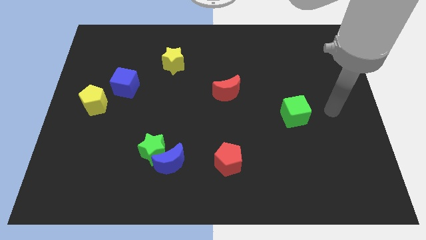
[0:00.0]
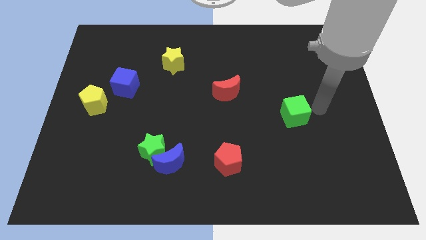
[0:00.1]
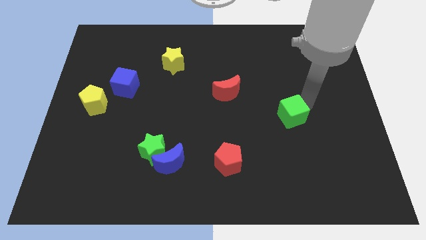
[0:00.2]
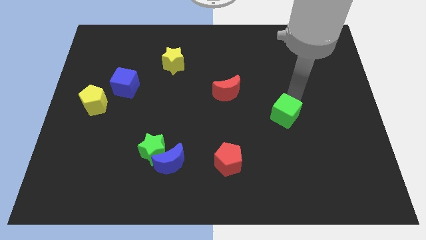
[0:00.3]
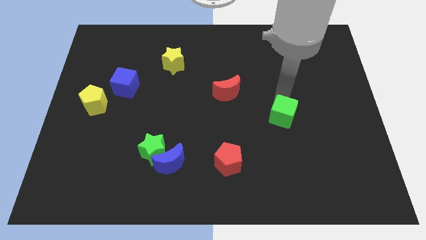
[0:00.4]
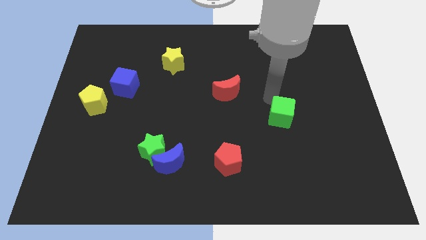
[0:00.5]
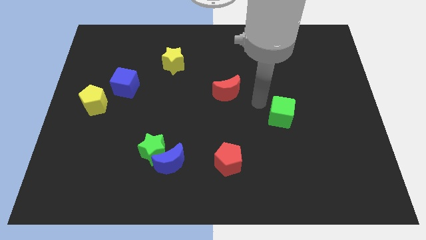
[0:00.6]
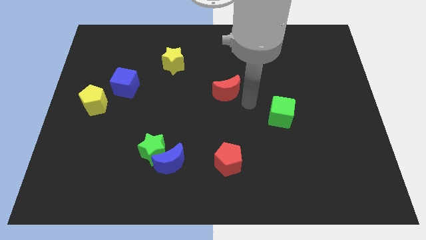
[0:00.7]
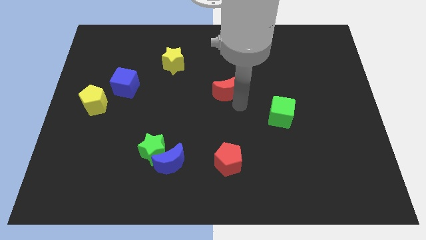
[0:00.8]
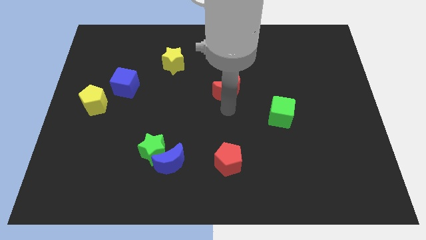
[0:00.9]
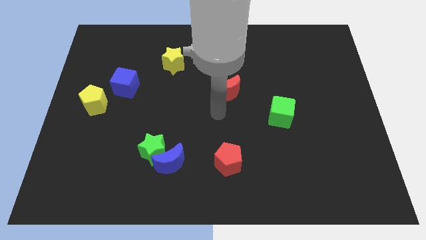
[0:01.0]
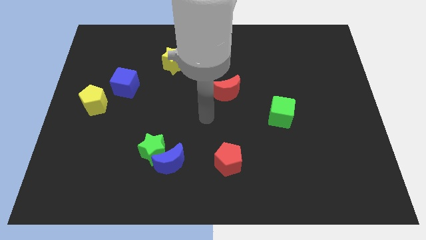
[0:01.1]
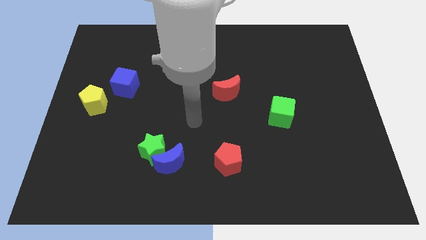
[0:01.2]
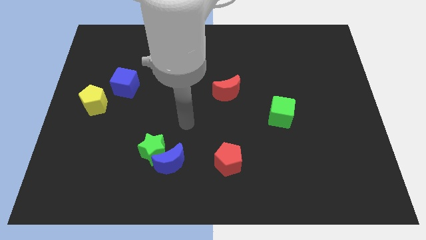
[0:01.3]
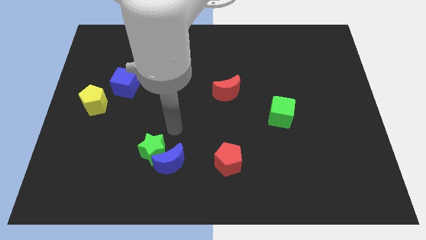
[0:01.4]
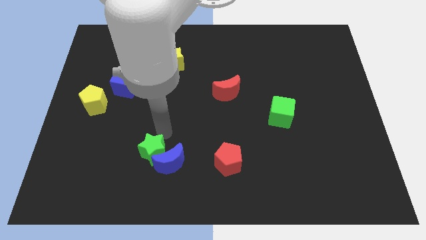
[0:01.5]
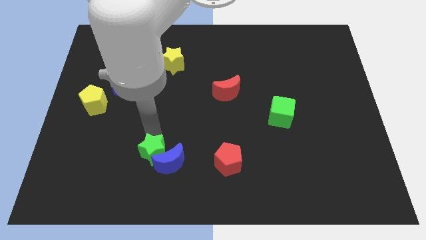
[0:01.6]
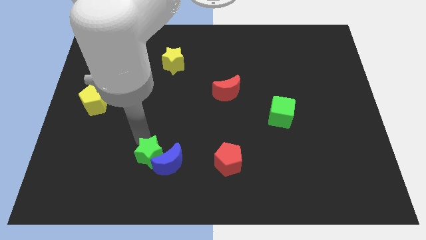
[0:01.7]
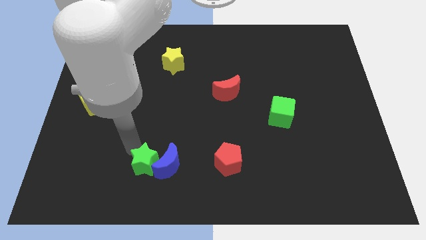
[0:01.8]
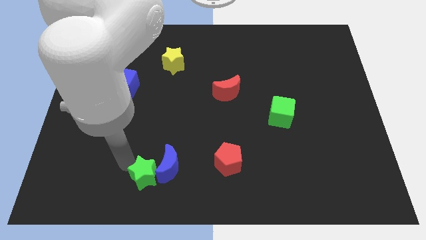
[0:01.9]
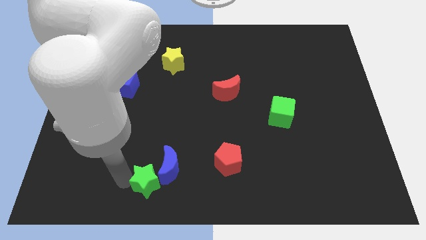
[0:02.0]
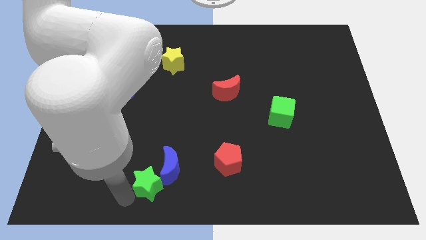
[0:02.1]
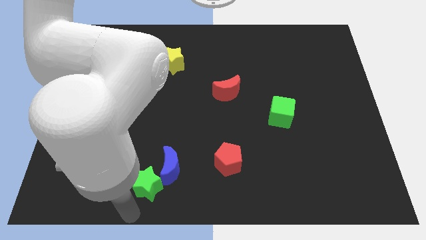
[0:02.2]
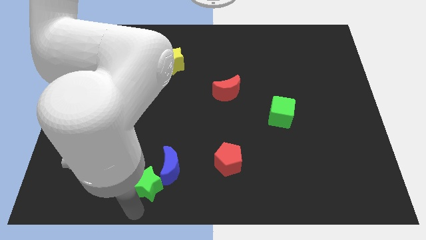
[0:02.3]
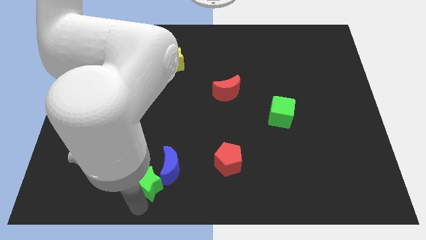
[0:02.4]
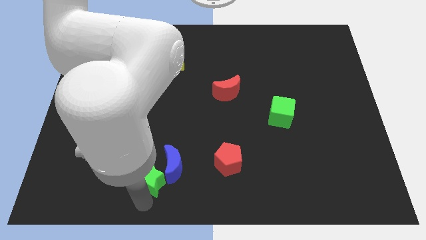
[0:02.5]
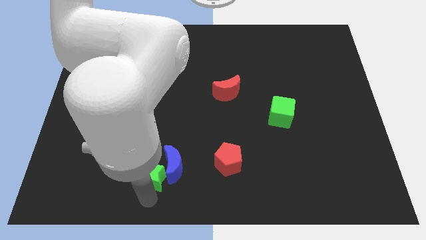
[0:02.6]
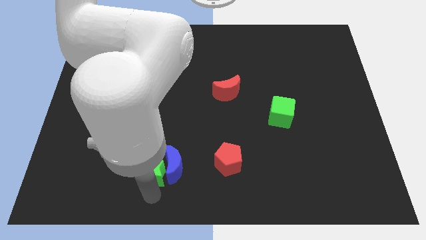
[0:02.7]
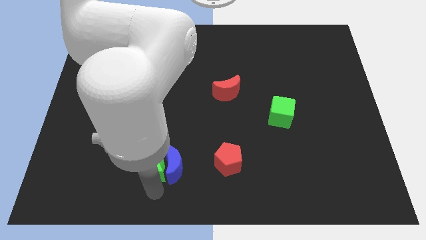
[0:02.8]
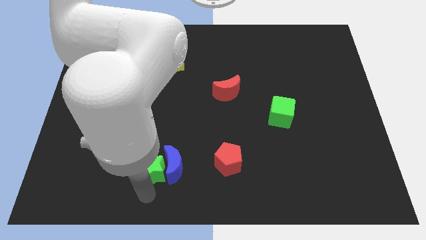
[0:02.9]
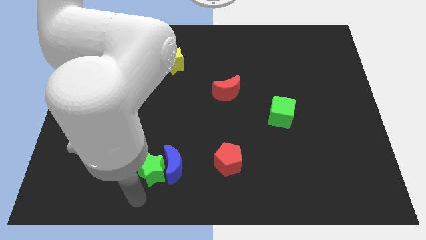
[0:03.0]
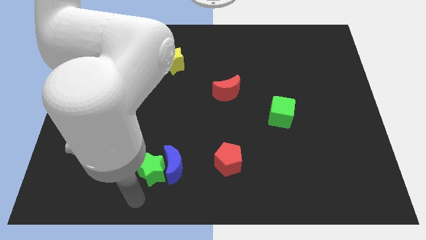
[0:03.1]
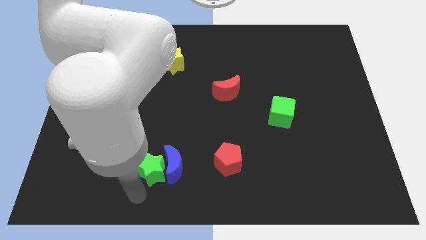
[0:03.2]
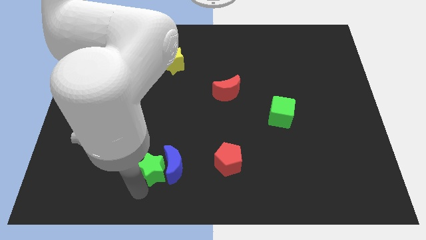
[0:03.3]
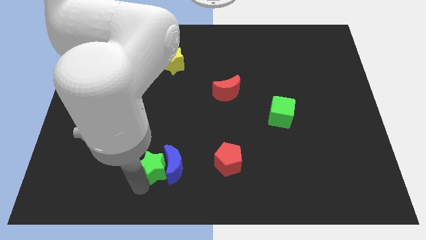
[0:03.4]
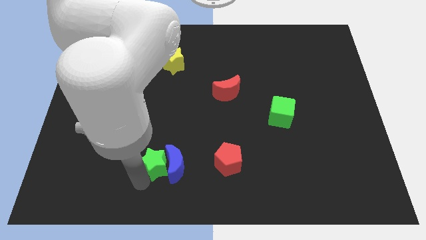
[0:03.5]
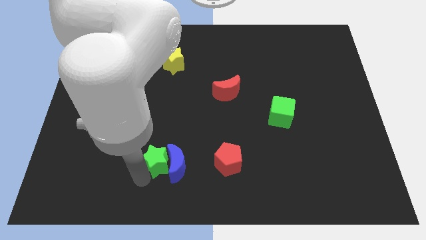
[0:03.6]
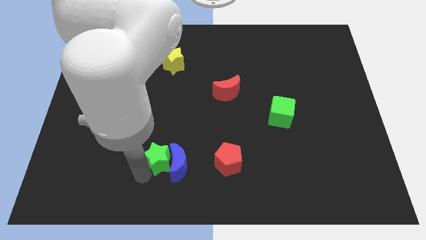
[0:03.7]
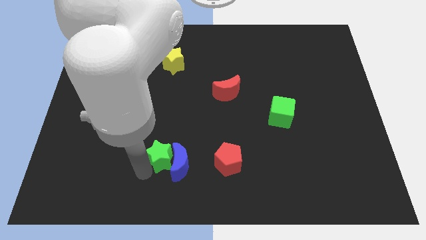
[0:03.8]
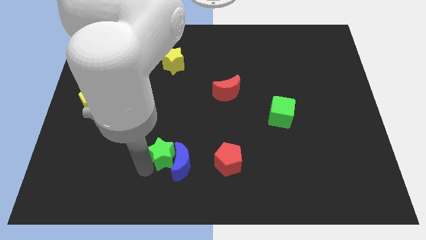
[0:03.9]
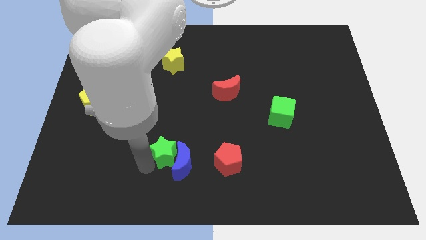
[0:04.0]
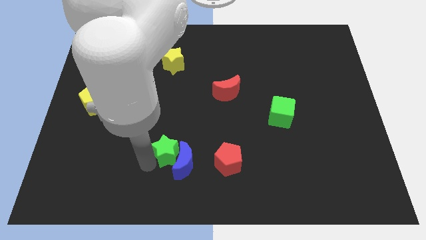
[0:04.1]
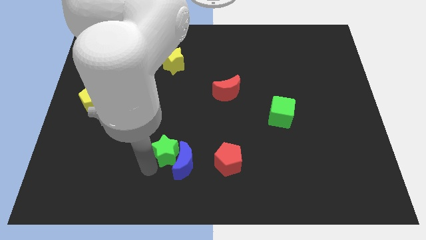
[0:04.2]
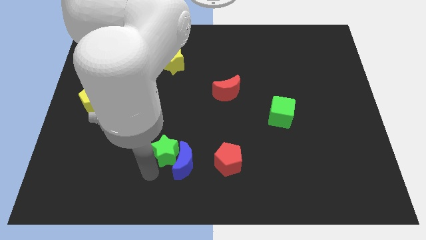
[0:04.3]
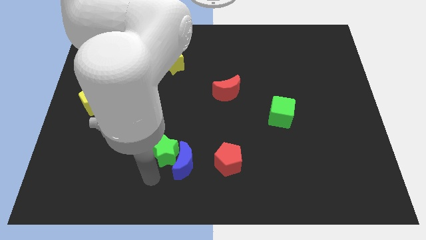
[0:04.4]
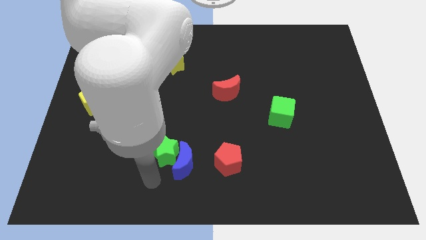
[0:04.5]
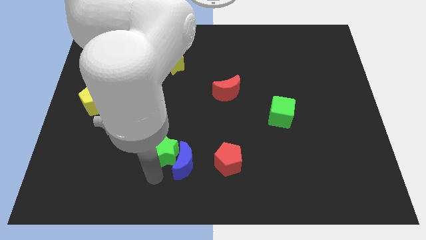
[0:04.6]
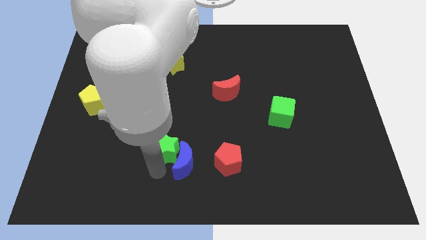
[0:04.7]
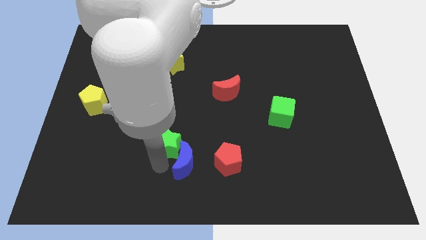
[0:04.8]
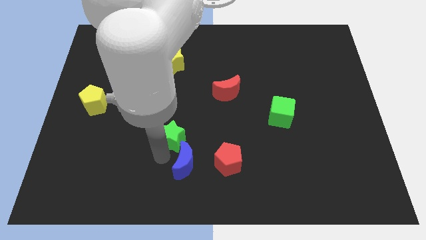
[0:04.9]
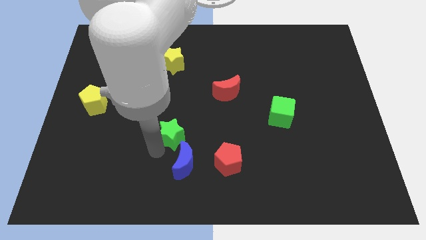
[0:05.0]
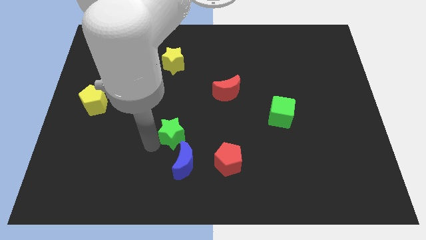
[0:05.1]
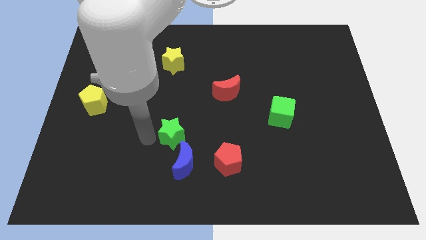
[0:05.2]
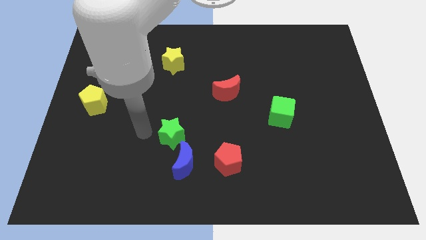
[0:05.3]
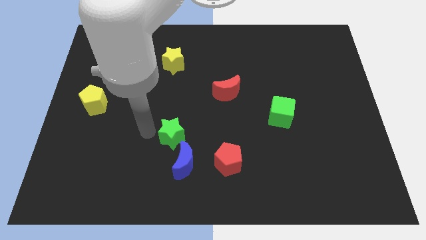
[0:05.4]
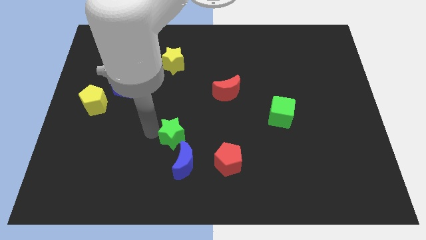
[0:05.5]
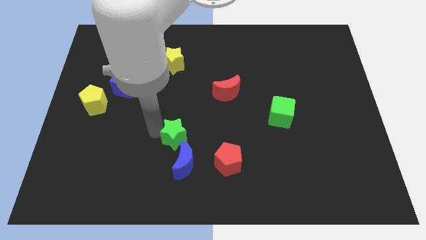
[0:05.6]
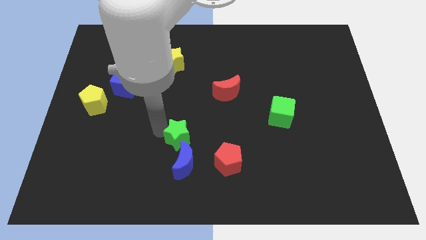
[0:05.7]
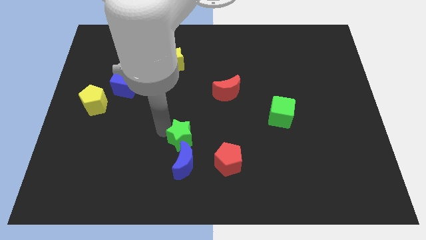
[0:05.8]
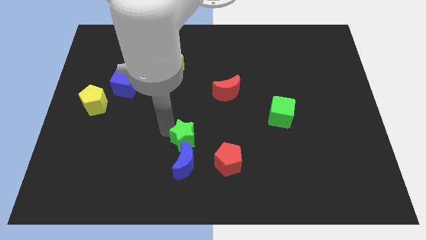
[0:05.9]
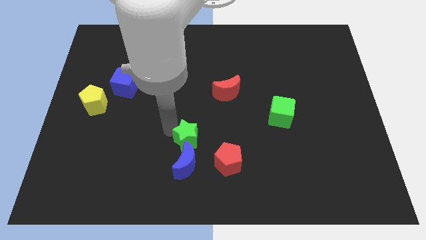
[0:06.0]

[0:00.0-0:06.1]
push the green star to the top right side of the blue moon
